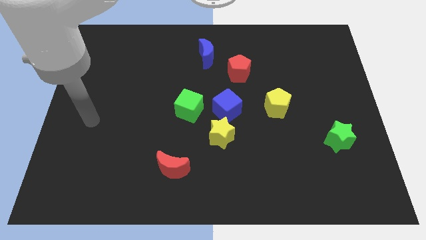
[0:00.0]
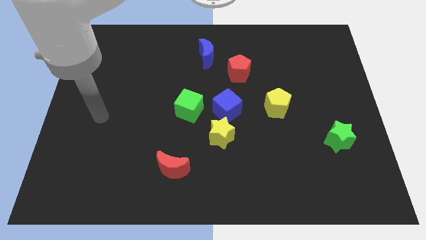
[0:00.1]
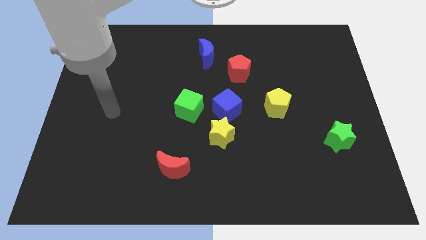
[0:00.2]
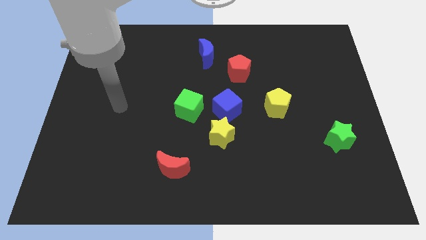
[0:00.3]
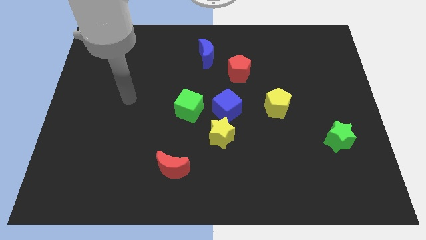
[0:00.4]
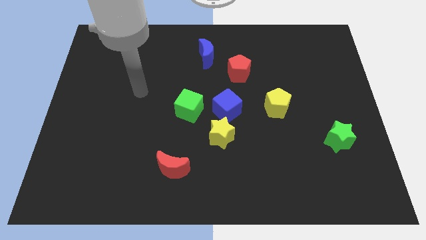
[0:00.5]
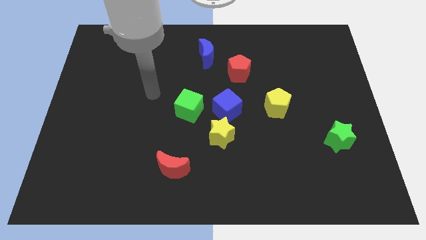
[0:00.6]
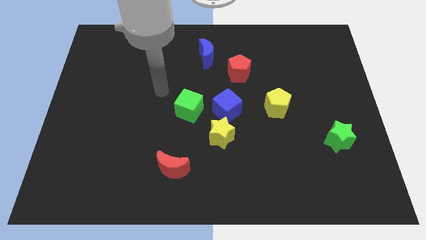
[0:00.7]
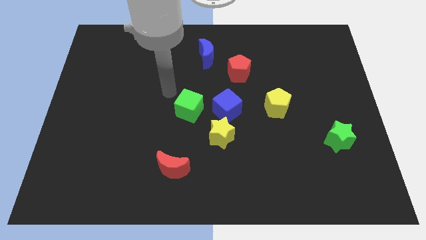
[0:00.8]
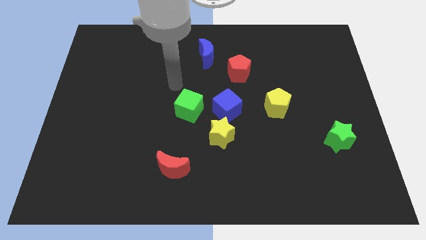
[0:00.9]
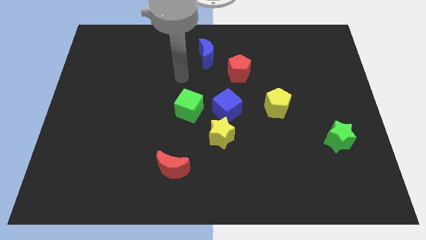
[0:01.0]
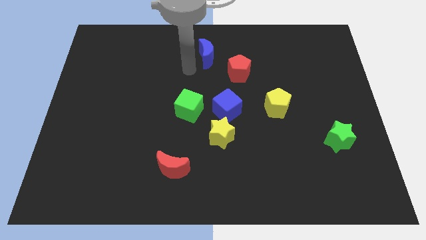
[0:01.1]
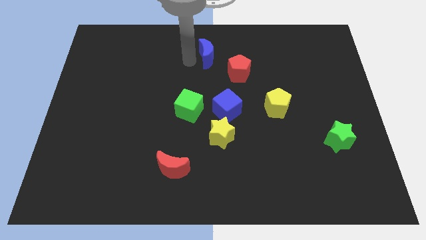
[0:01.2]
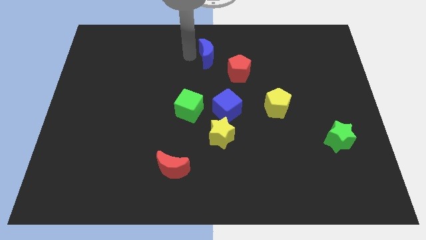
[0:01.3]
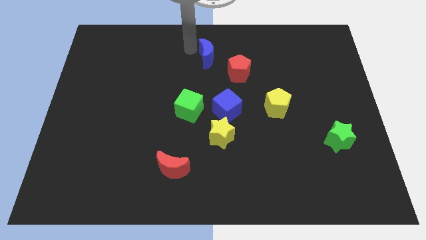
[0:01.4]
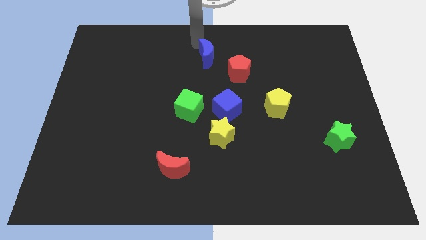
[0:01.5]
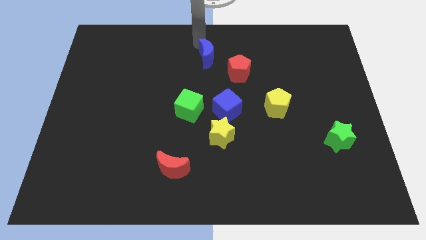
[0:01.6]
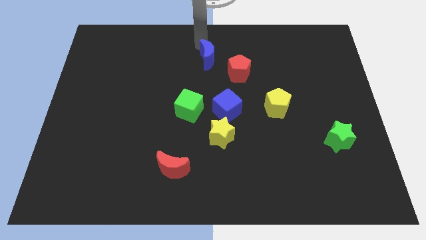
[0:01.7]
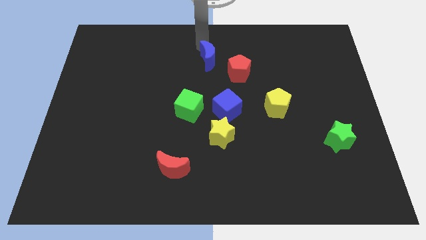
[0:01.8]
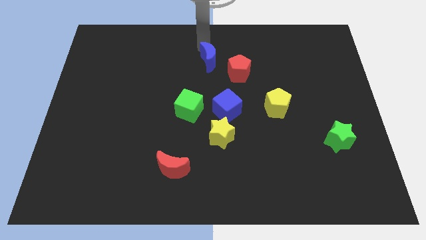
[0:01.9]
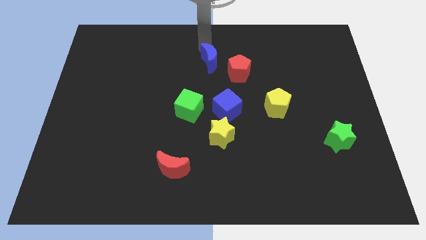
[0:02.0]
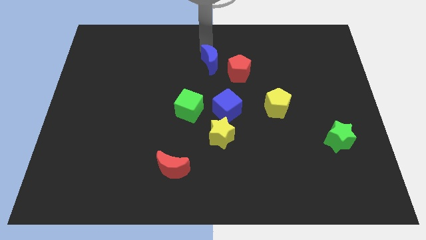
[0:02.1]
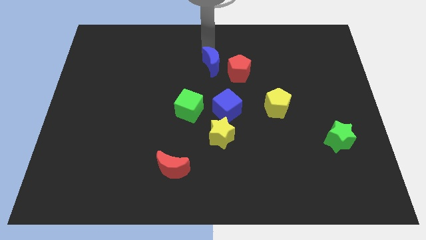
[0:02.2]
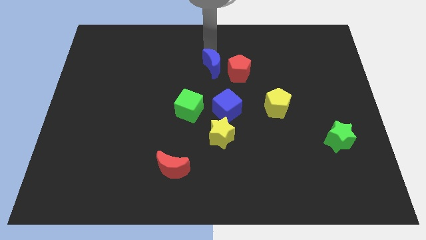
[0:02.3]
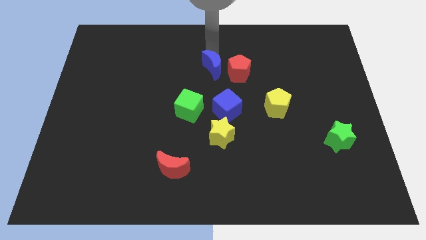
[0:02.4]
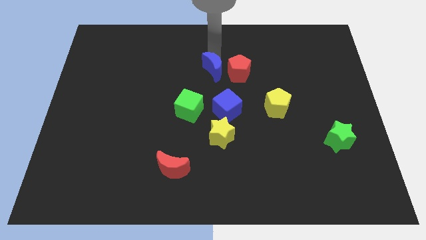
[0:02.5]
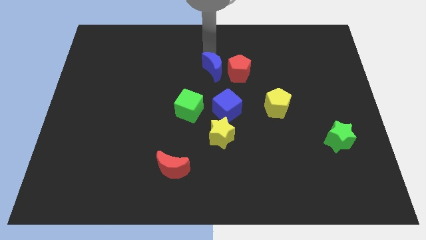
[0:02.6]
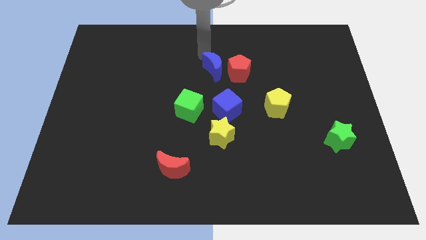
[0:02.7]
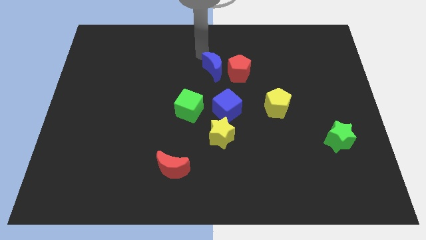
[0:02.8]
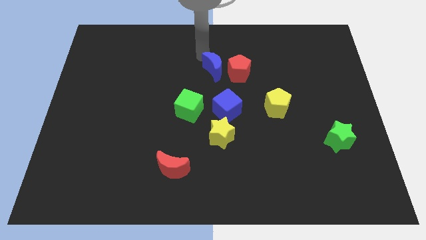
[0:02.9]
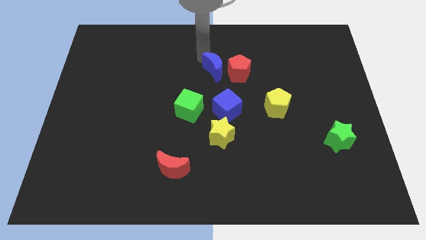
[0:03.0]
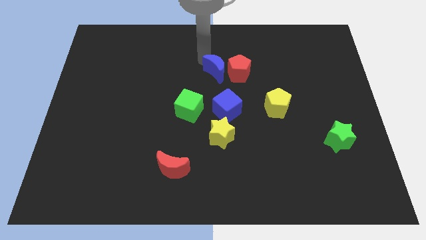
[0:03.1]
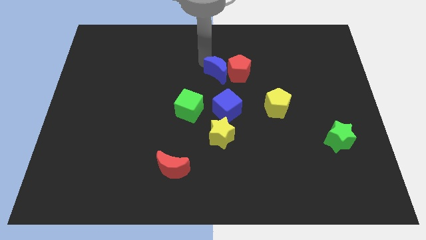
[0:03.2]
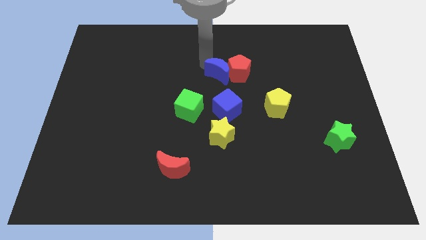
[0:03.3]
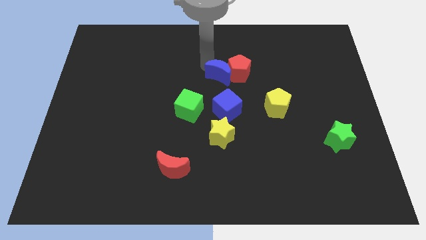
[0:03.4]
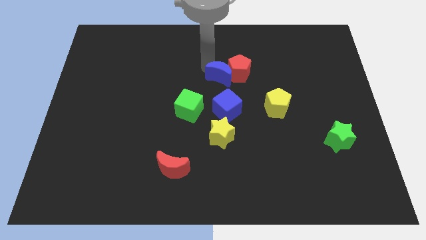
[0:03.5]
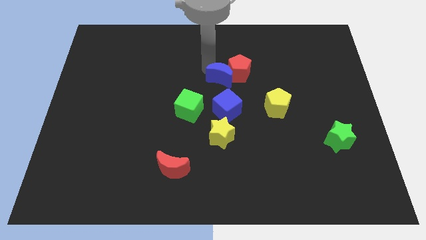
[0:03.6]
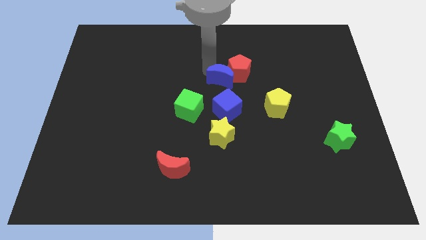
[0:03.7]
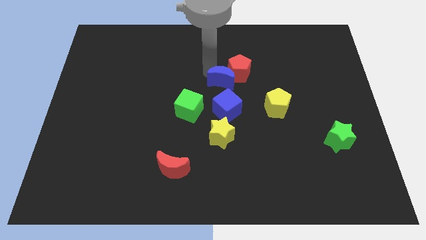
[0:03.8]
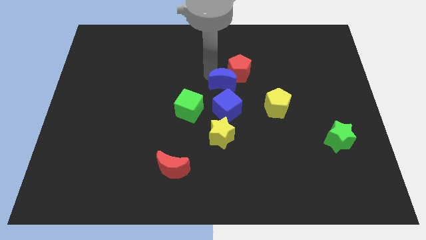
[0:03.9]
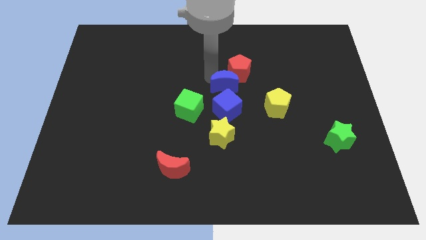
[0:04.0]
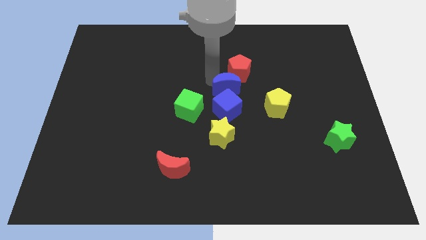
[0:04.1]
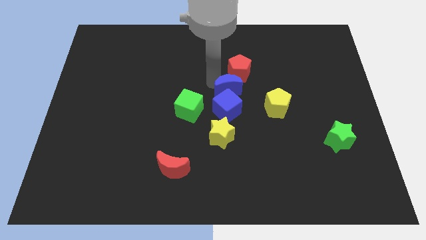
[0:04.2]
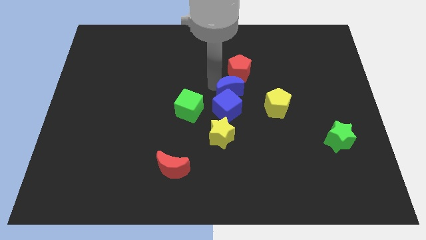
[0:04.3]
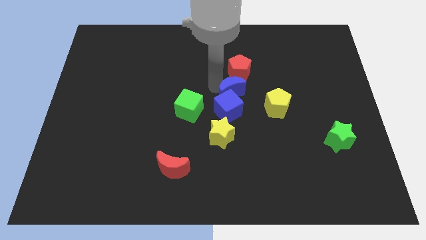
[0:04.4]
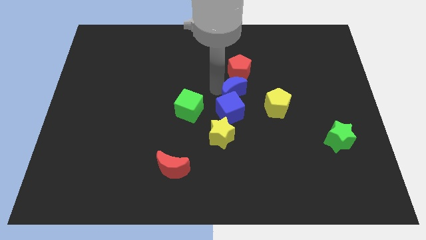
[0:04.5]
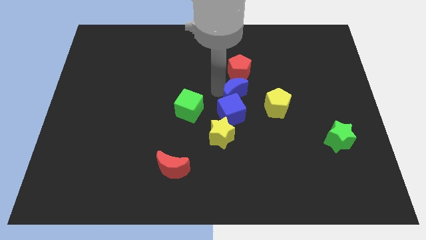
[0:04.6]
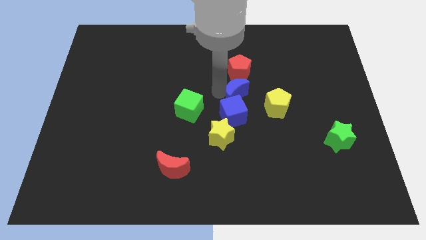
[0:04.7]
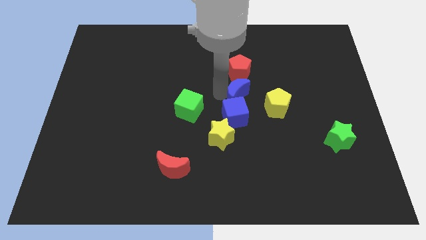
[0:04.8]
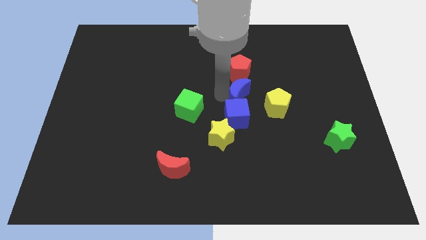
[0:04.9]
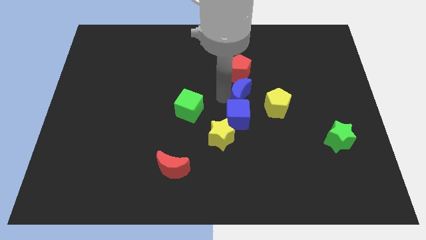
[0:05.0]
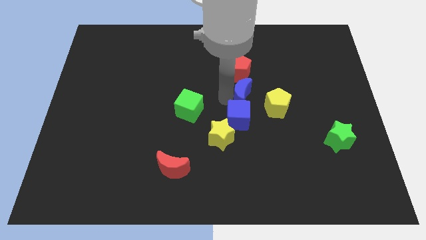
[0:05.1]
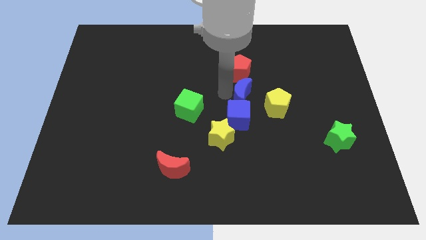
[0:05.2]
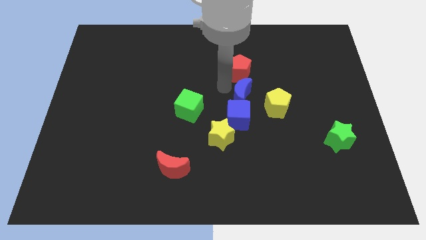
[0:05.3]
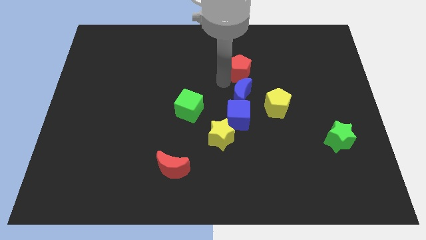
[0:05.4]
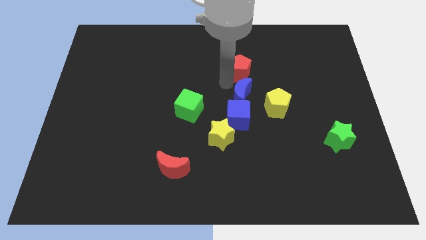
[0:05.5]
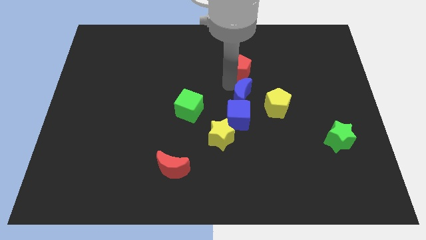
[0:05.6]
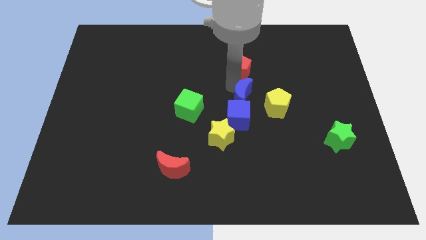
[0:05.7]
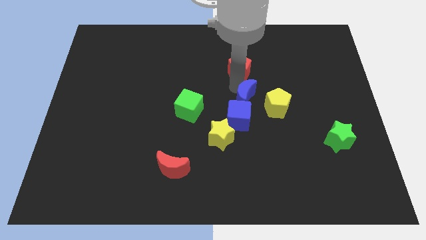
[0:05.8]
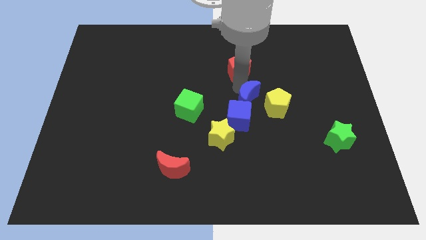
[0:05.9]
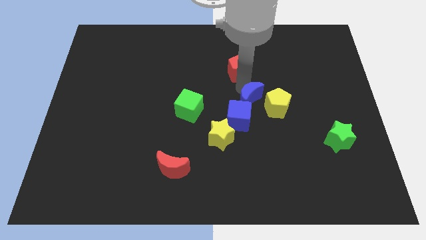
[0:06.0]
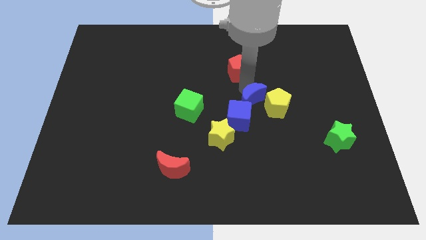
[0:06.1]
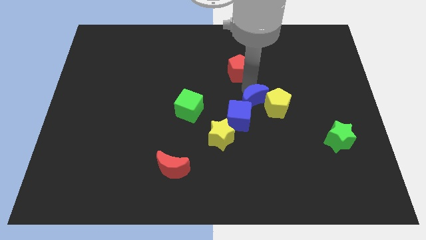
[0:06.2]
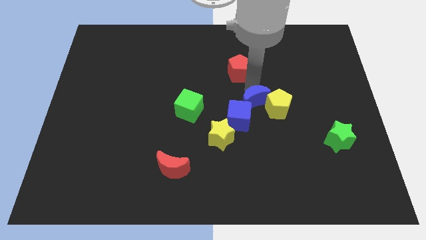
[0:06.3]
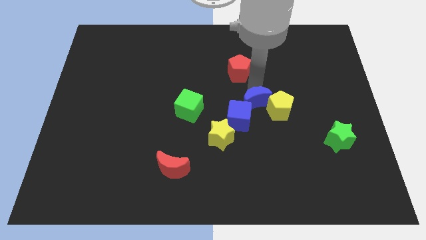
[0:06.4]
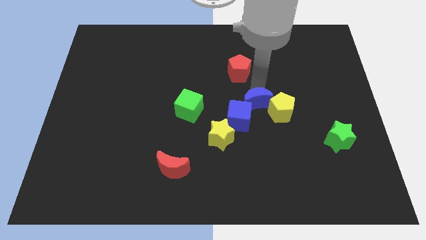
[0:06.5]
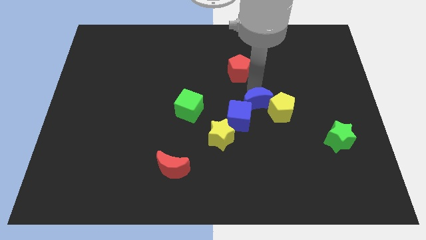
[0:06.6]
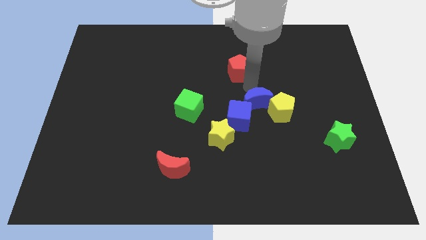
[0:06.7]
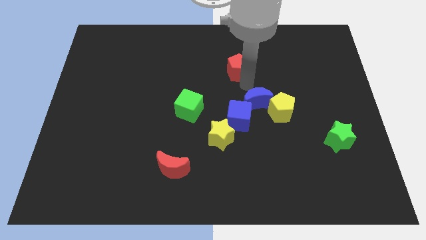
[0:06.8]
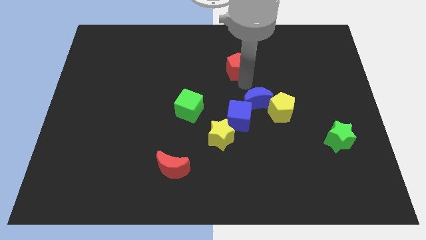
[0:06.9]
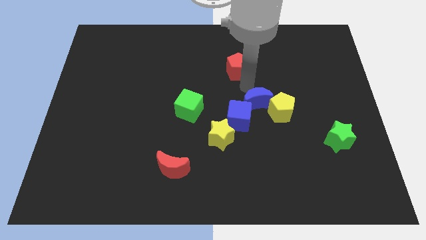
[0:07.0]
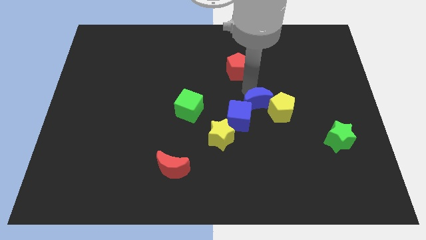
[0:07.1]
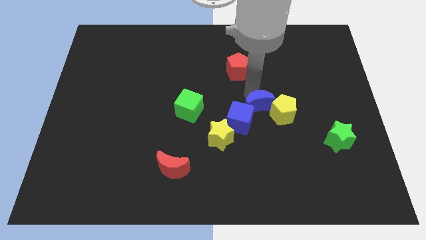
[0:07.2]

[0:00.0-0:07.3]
slide the blue moon diagonally down and to the right

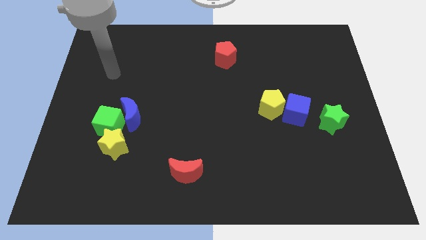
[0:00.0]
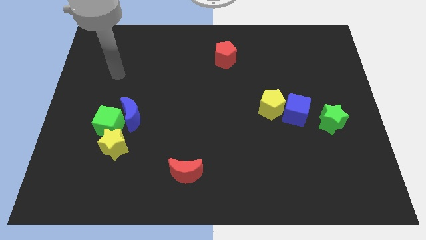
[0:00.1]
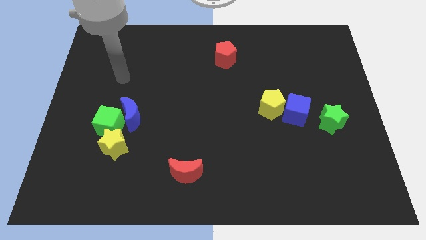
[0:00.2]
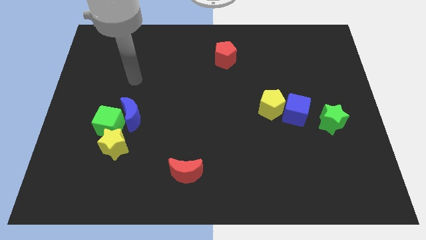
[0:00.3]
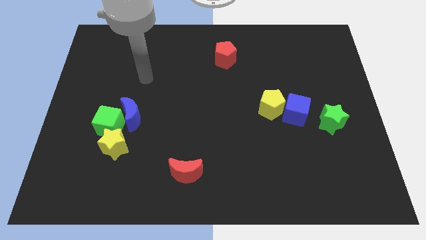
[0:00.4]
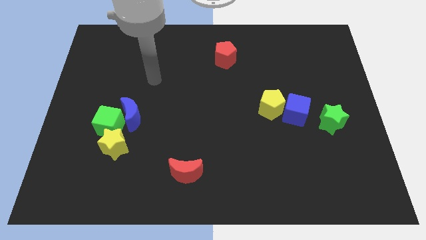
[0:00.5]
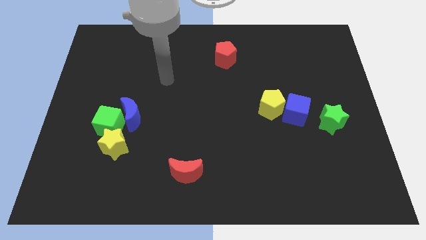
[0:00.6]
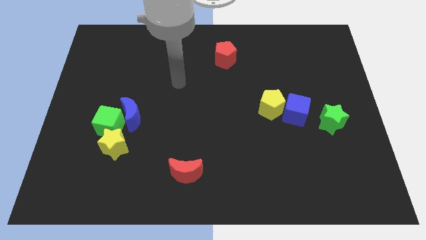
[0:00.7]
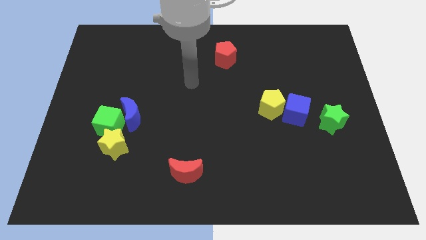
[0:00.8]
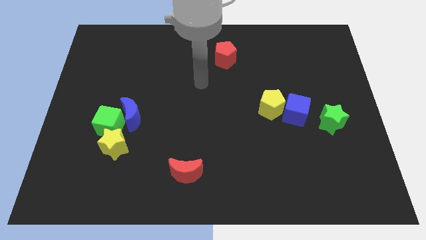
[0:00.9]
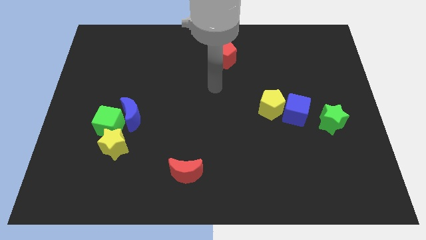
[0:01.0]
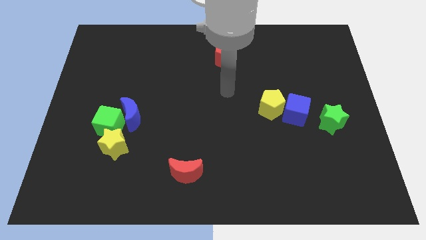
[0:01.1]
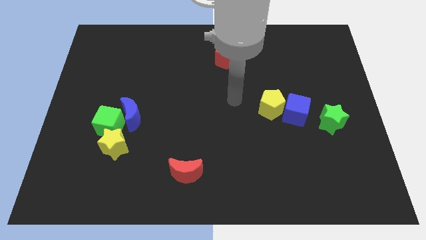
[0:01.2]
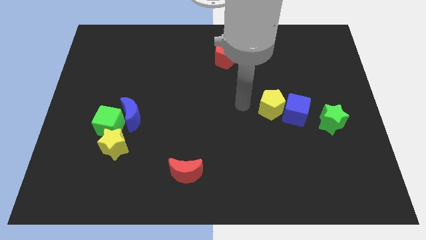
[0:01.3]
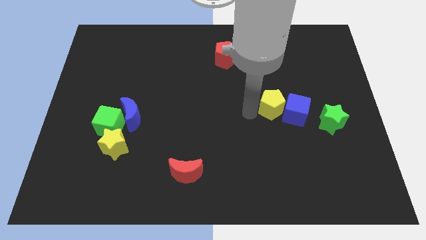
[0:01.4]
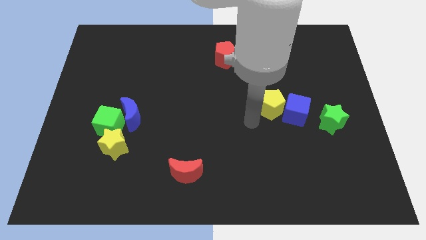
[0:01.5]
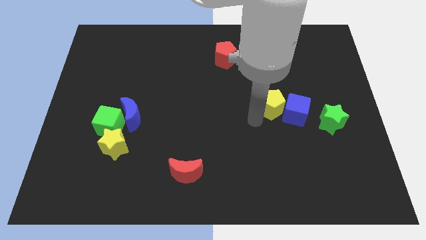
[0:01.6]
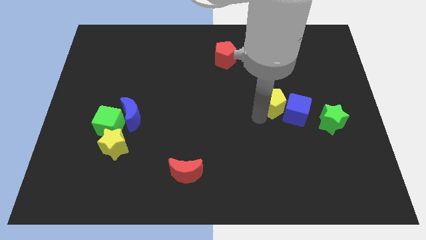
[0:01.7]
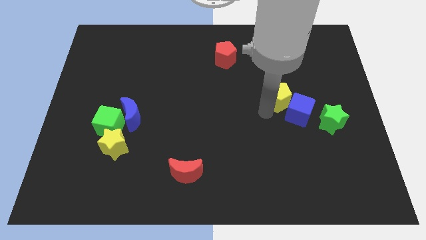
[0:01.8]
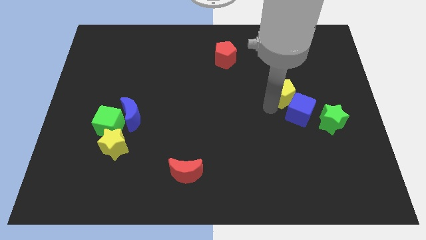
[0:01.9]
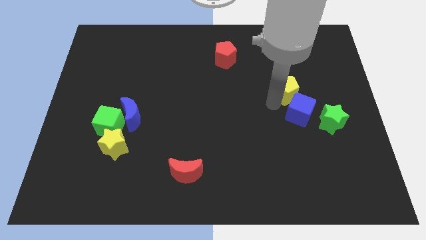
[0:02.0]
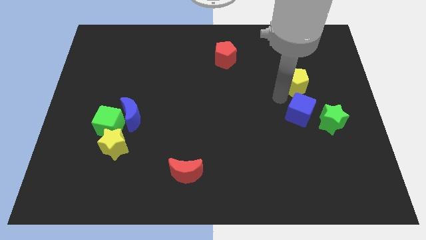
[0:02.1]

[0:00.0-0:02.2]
push the yellow pentagon diagonally up and right a little bit
